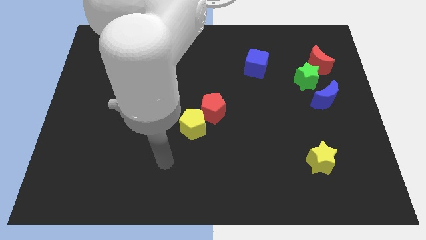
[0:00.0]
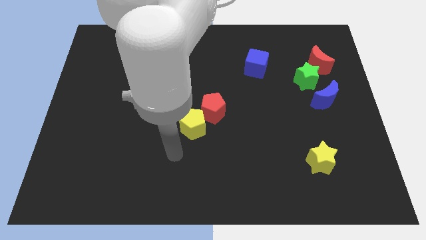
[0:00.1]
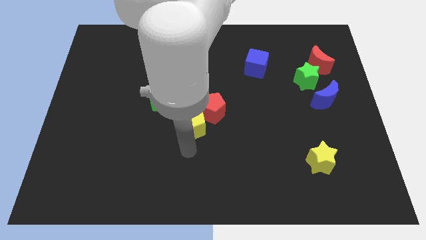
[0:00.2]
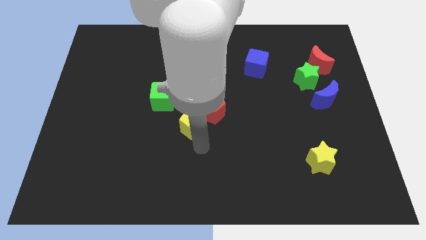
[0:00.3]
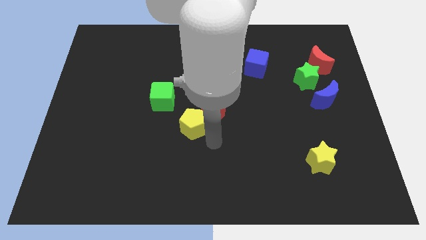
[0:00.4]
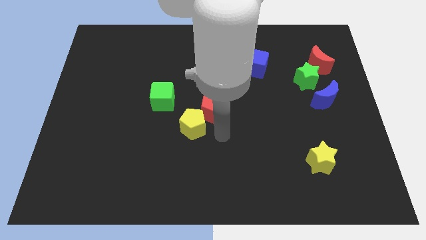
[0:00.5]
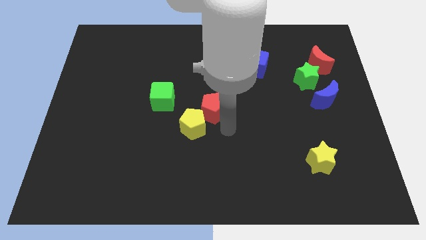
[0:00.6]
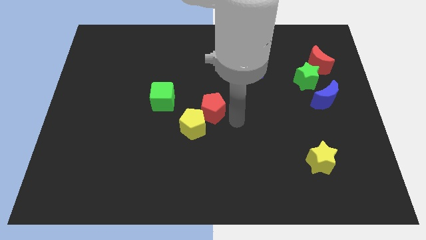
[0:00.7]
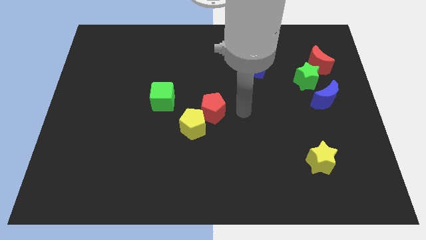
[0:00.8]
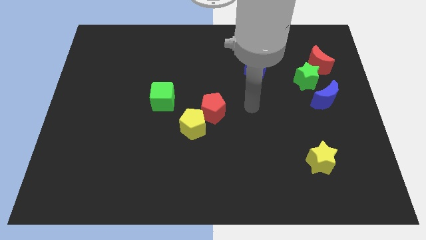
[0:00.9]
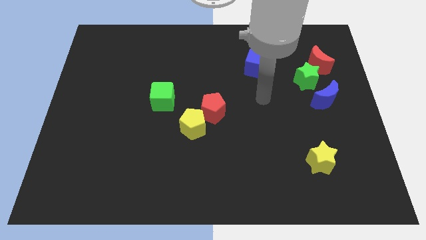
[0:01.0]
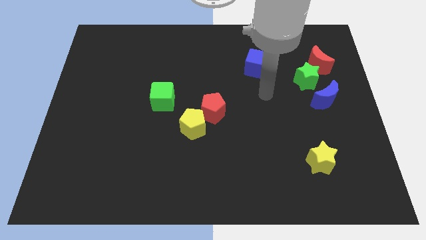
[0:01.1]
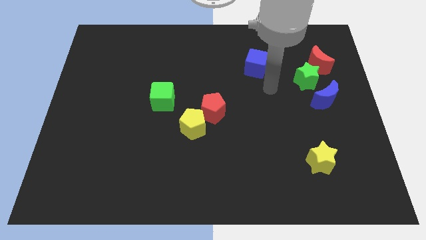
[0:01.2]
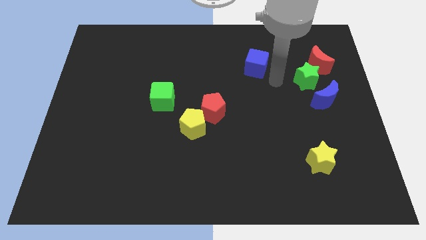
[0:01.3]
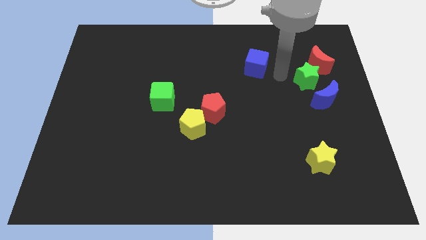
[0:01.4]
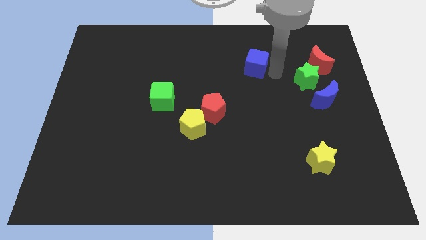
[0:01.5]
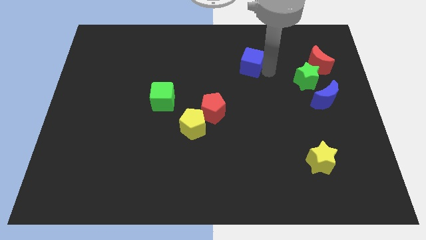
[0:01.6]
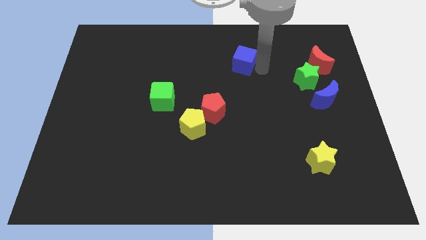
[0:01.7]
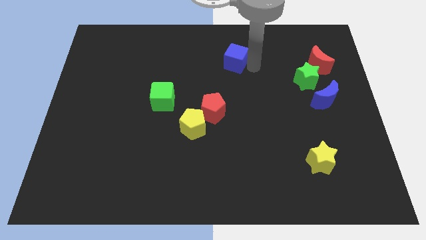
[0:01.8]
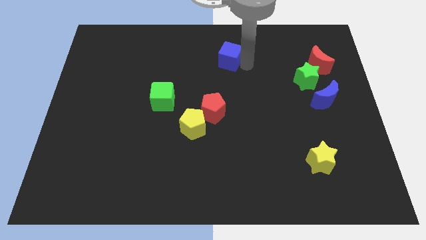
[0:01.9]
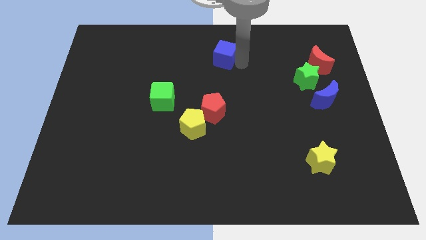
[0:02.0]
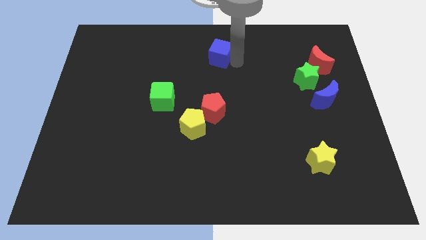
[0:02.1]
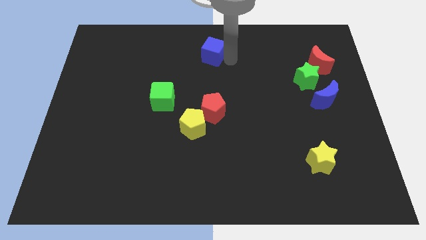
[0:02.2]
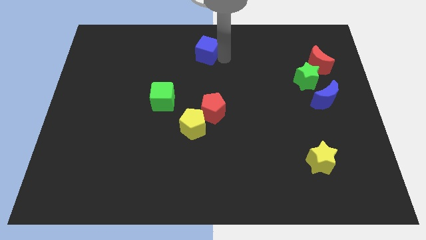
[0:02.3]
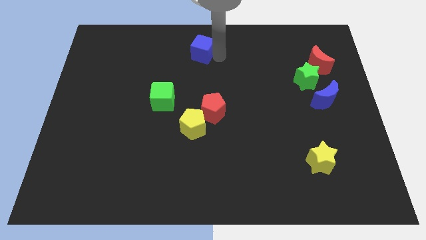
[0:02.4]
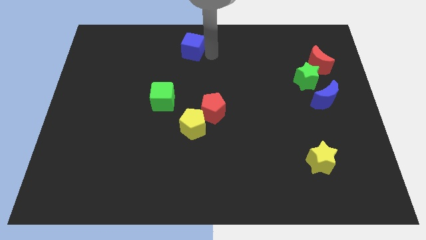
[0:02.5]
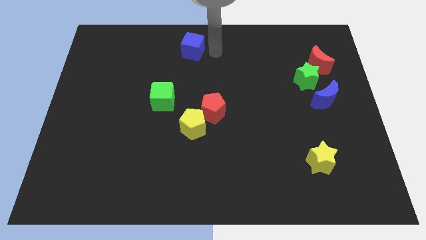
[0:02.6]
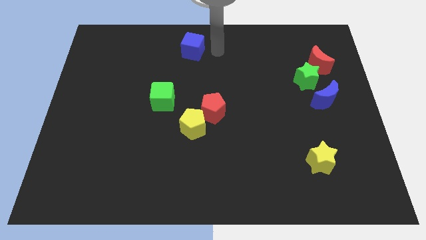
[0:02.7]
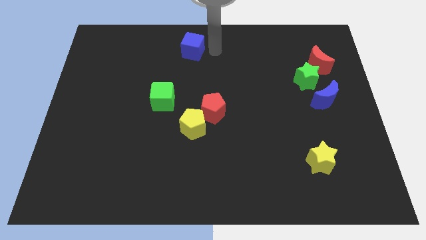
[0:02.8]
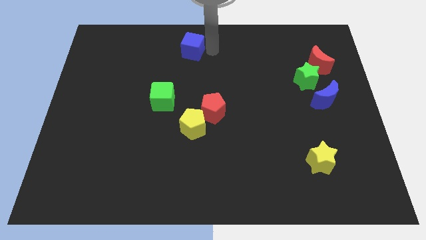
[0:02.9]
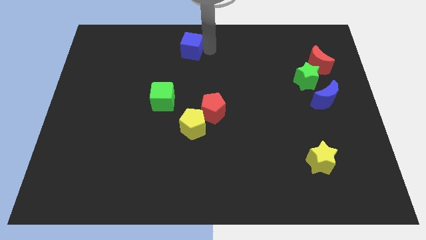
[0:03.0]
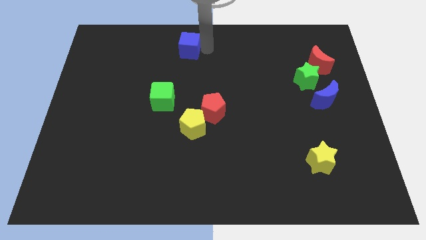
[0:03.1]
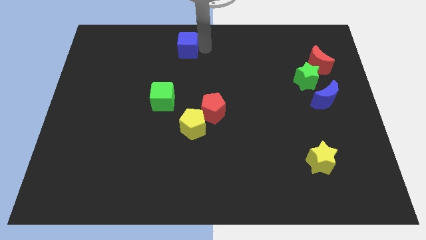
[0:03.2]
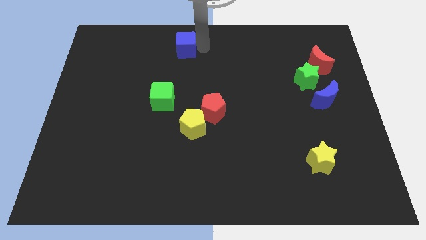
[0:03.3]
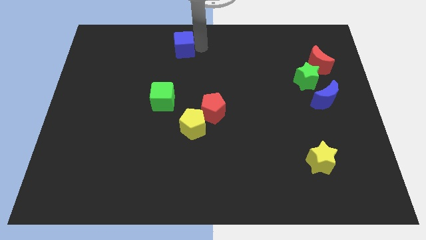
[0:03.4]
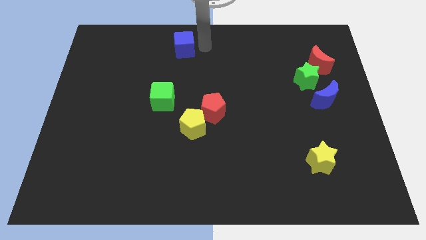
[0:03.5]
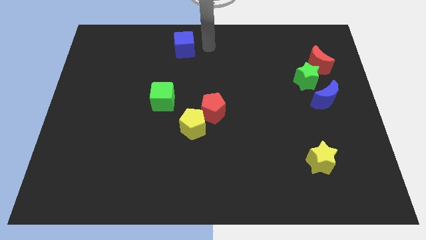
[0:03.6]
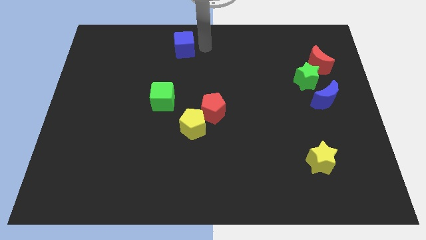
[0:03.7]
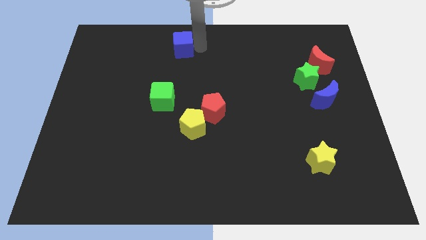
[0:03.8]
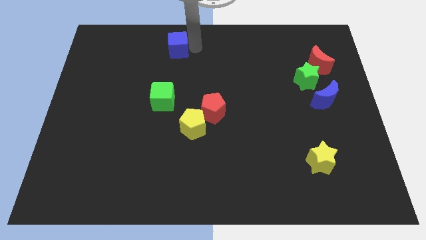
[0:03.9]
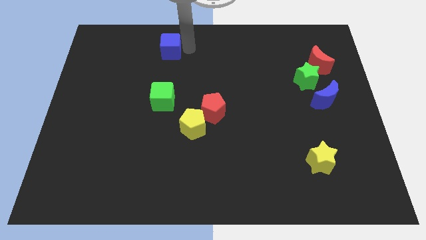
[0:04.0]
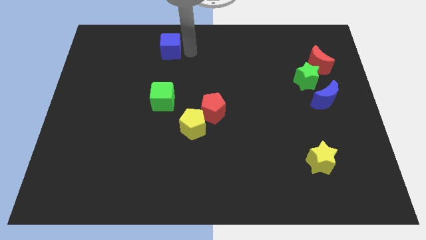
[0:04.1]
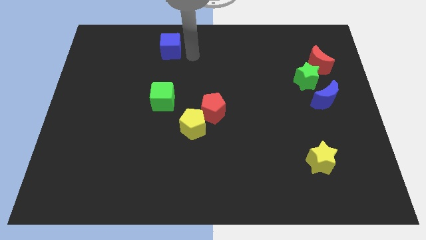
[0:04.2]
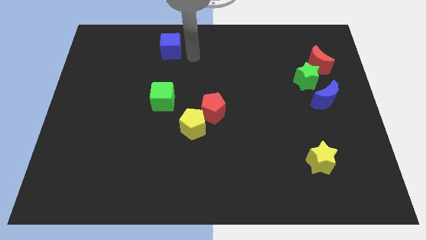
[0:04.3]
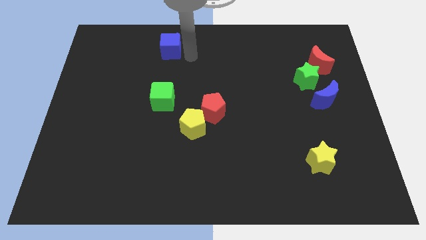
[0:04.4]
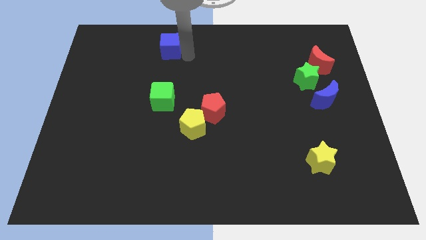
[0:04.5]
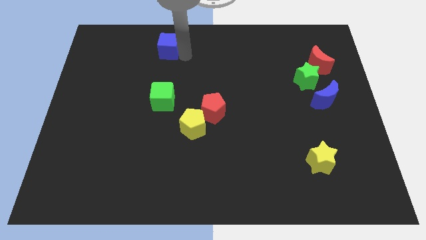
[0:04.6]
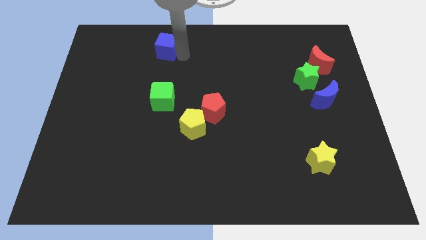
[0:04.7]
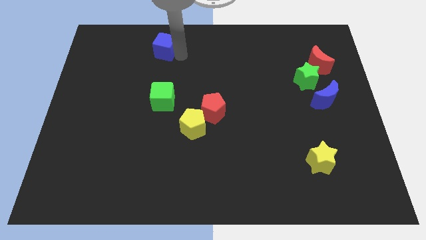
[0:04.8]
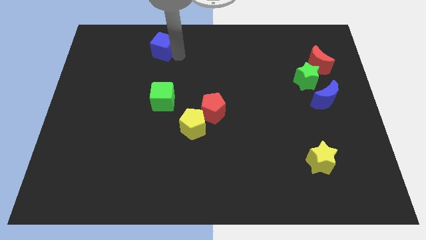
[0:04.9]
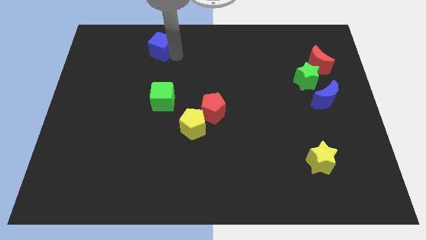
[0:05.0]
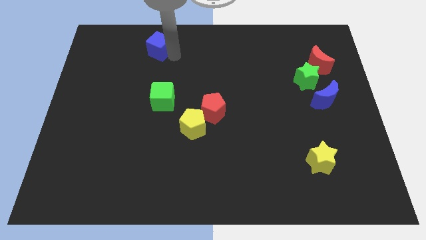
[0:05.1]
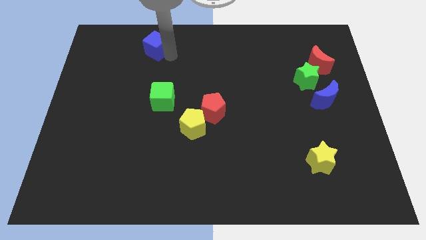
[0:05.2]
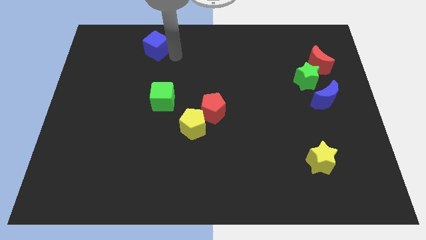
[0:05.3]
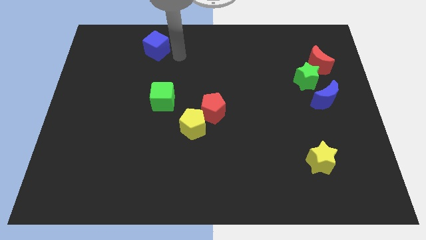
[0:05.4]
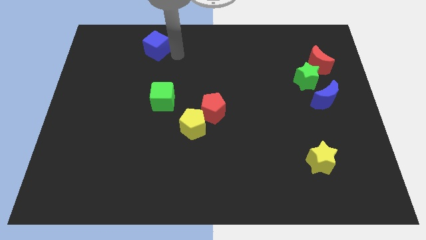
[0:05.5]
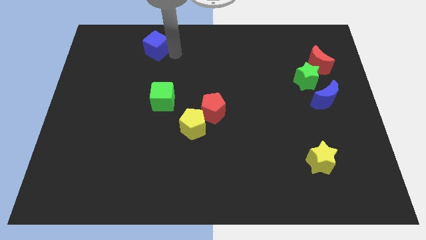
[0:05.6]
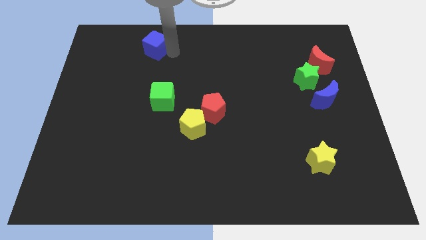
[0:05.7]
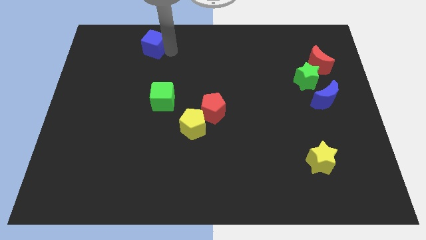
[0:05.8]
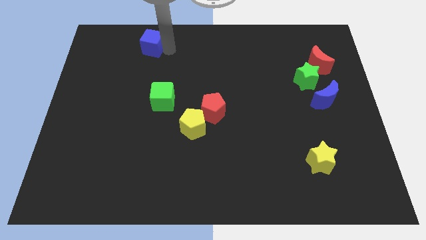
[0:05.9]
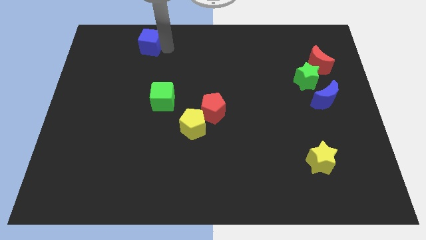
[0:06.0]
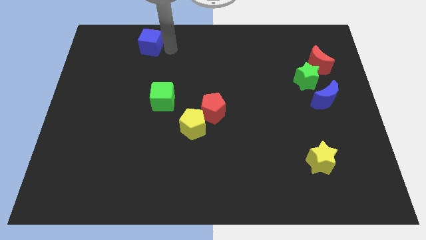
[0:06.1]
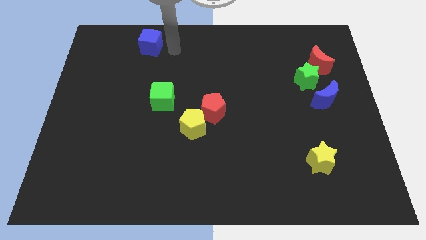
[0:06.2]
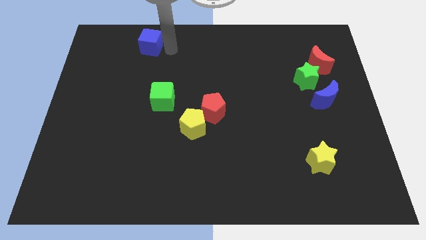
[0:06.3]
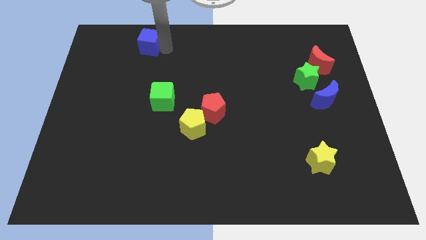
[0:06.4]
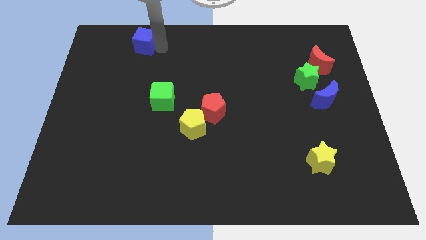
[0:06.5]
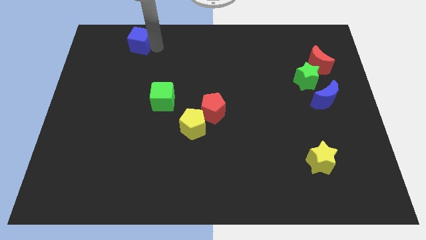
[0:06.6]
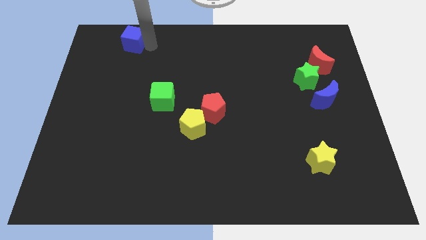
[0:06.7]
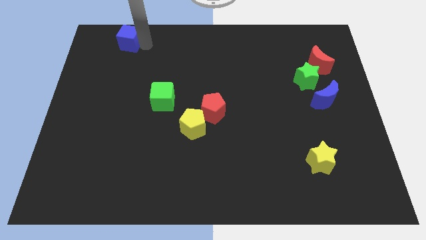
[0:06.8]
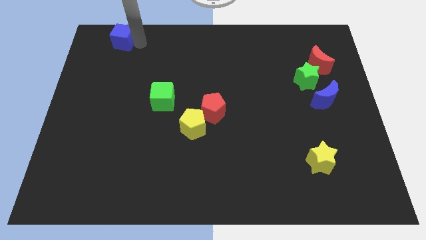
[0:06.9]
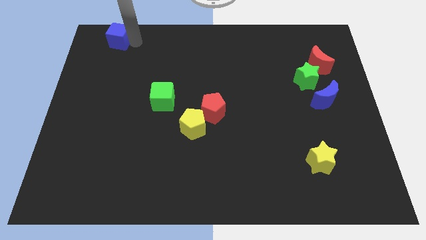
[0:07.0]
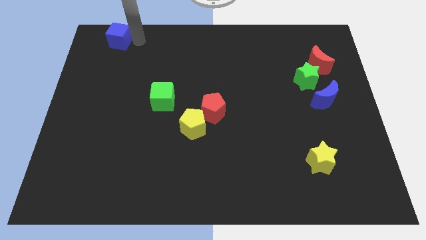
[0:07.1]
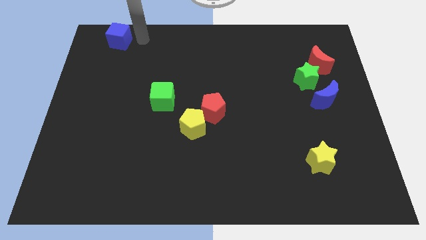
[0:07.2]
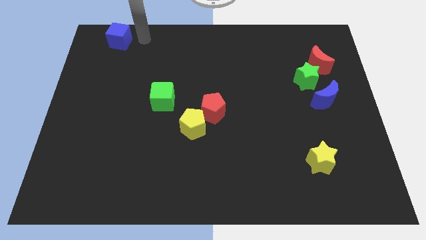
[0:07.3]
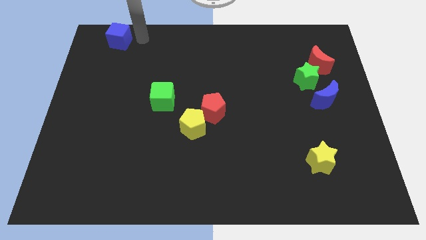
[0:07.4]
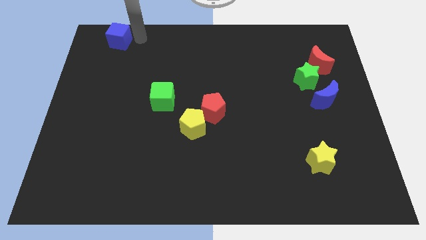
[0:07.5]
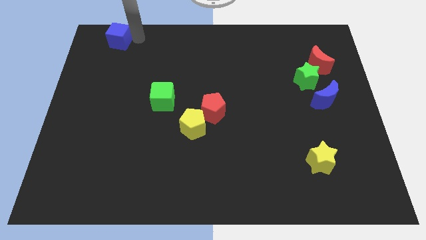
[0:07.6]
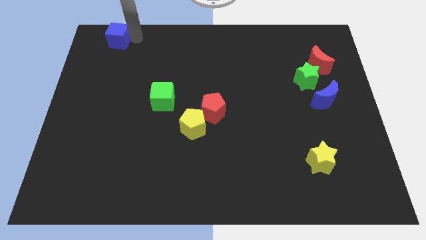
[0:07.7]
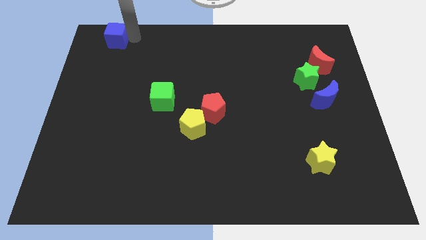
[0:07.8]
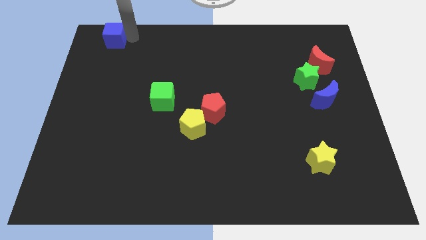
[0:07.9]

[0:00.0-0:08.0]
move the blue cube to the top left
